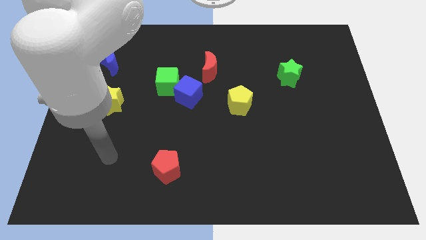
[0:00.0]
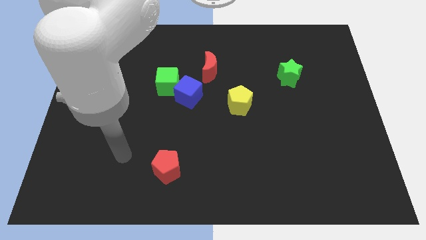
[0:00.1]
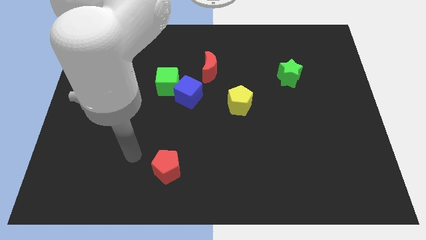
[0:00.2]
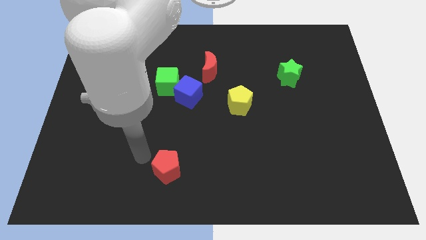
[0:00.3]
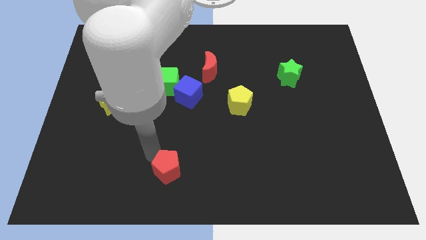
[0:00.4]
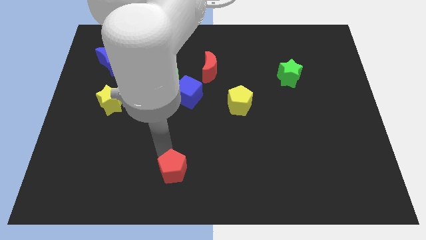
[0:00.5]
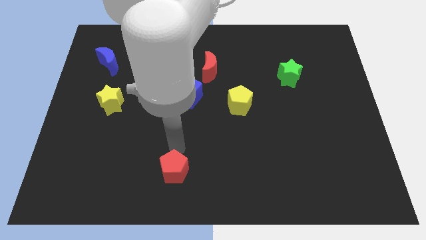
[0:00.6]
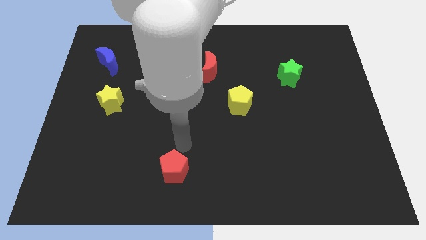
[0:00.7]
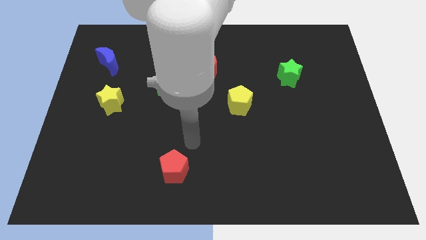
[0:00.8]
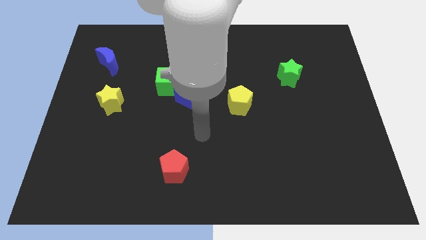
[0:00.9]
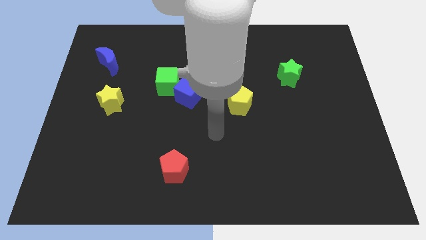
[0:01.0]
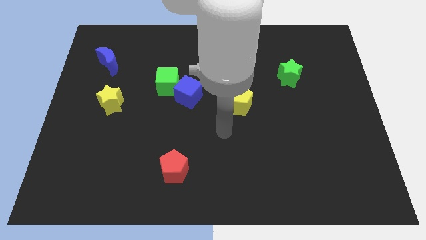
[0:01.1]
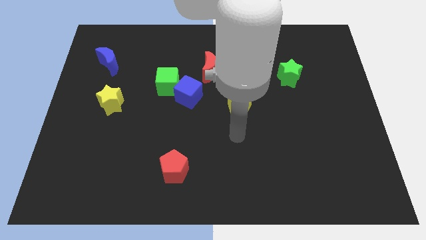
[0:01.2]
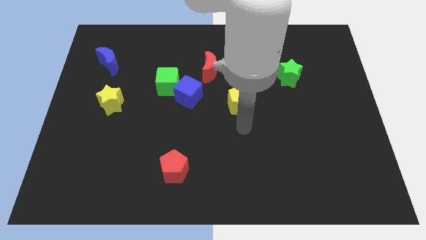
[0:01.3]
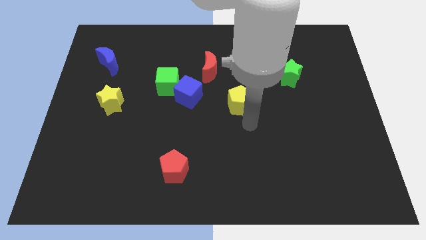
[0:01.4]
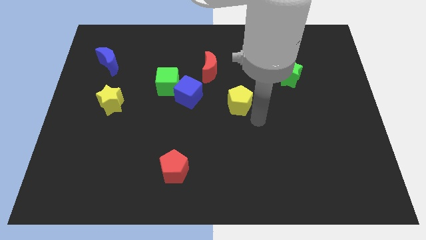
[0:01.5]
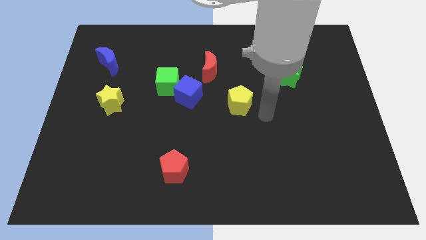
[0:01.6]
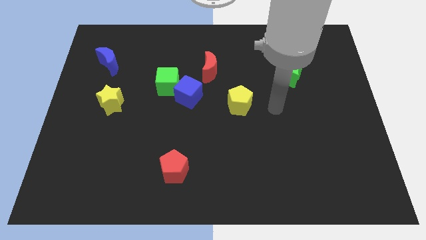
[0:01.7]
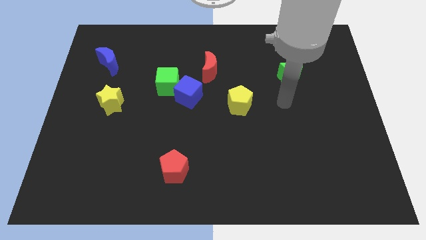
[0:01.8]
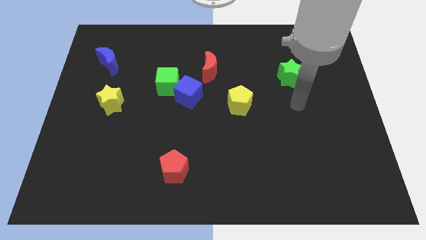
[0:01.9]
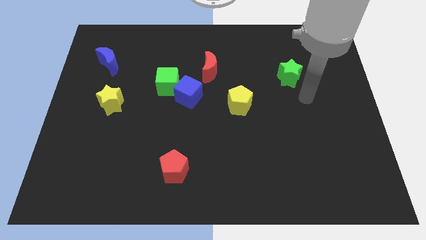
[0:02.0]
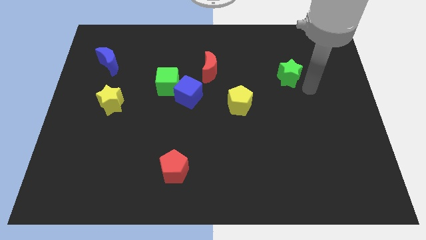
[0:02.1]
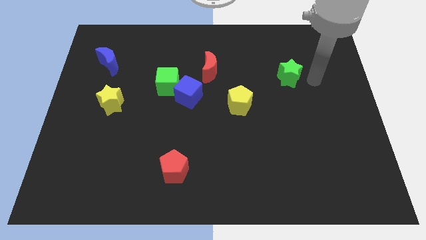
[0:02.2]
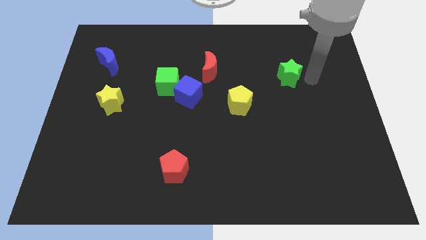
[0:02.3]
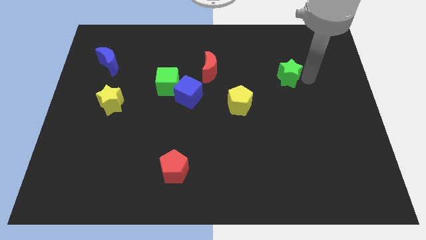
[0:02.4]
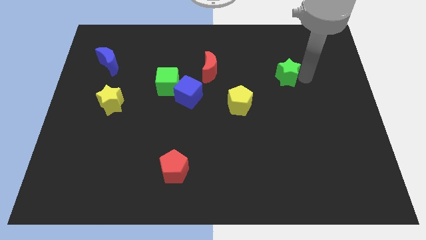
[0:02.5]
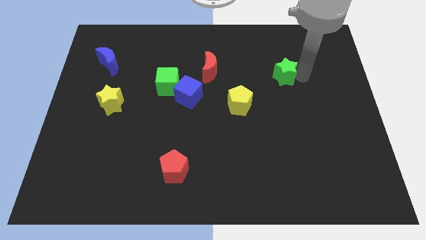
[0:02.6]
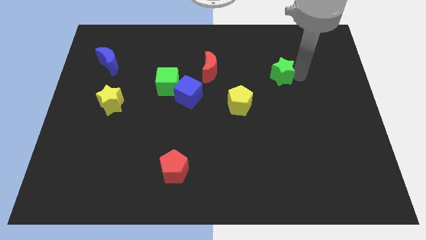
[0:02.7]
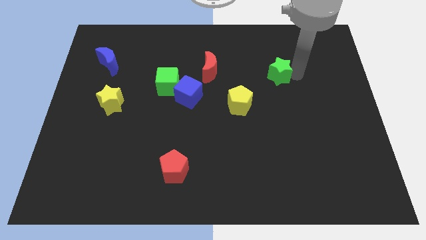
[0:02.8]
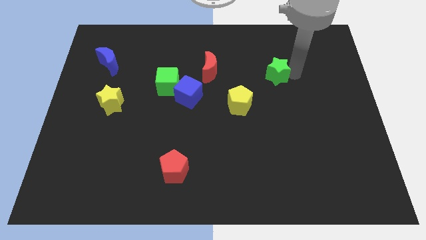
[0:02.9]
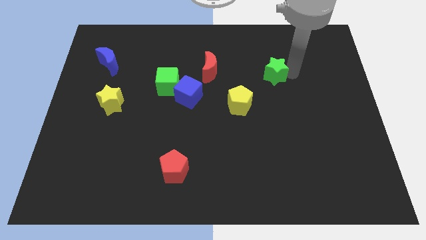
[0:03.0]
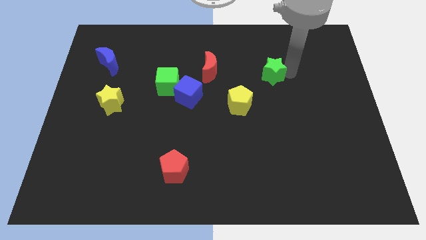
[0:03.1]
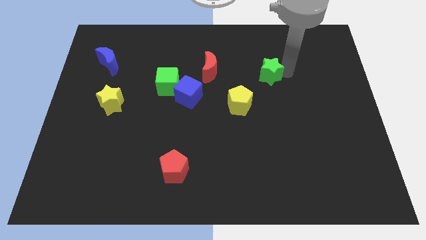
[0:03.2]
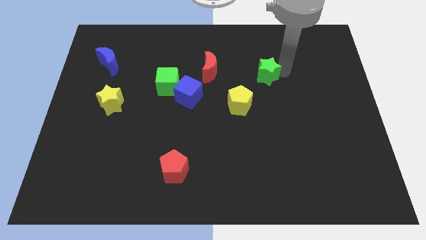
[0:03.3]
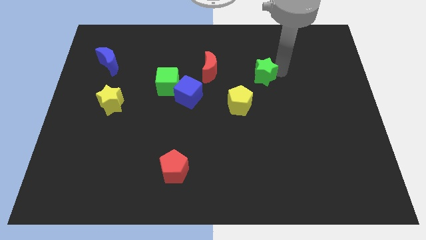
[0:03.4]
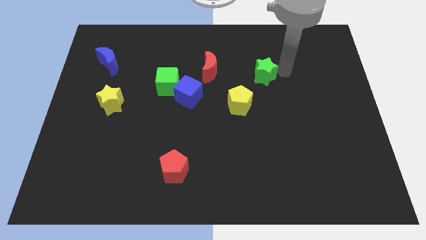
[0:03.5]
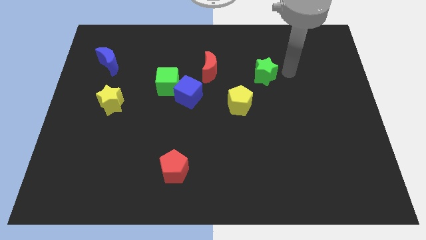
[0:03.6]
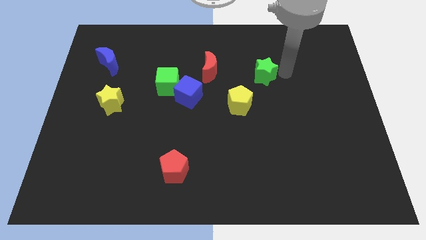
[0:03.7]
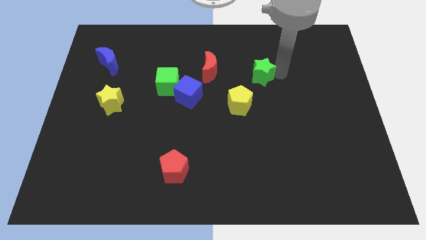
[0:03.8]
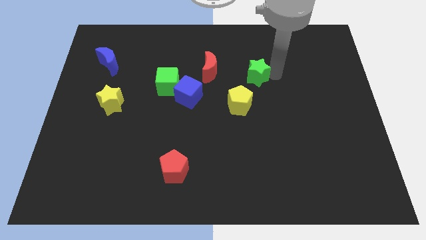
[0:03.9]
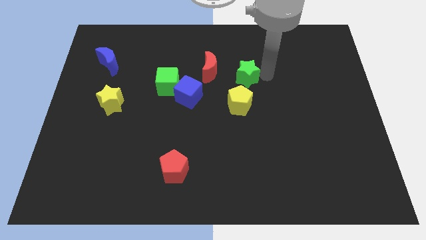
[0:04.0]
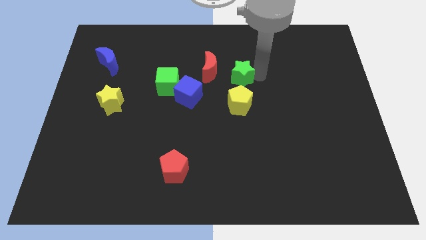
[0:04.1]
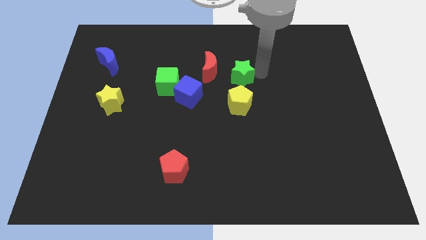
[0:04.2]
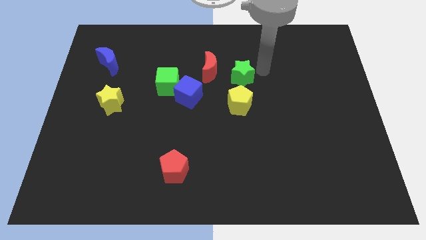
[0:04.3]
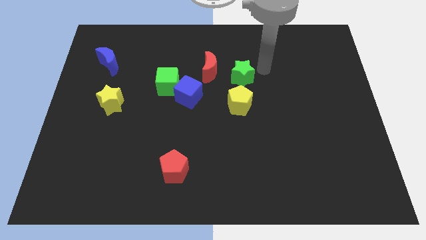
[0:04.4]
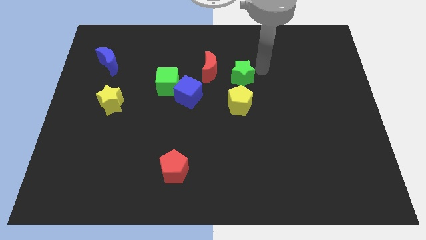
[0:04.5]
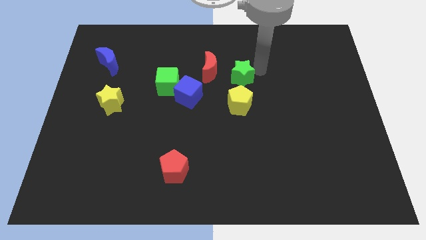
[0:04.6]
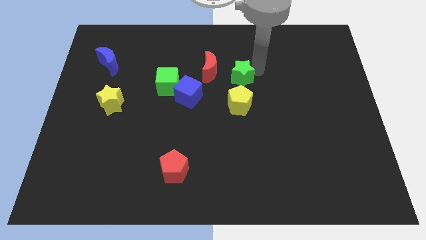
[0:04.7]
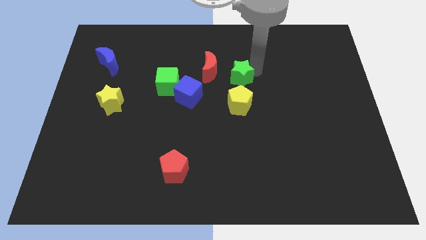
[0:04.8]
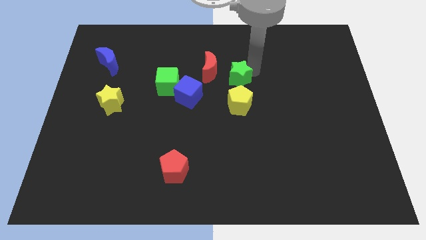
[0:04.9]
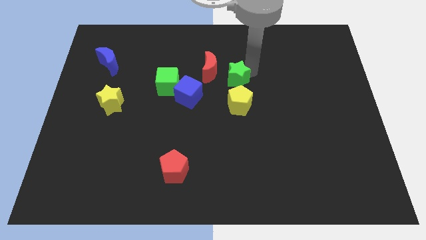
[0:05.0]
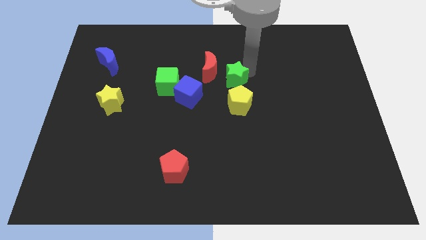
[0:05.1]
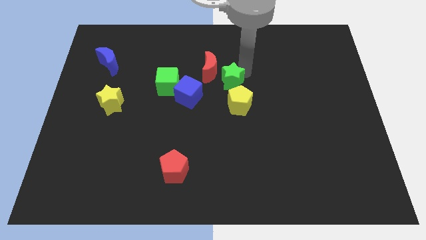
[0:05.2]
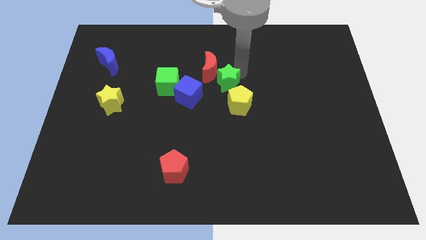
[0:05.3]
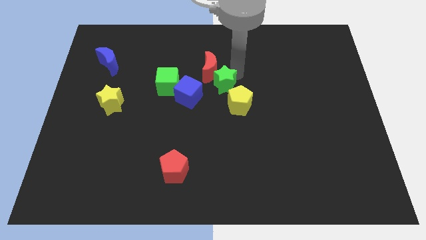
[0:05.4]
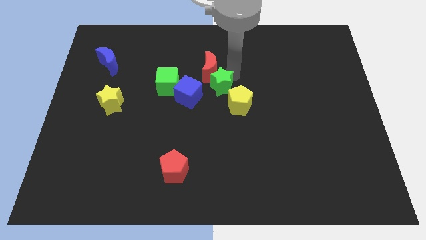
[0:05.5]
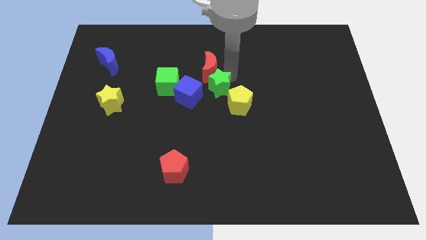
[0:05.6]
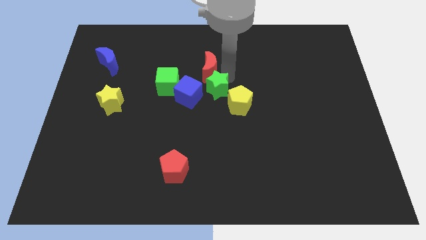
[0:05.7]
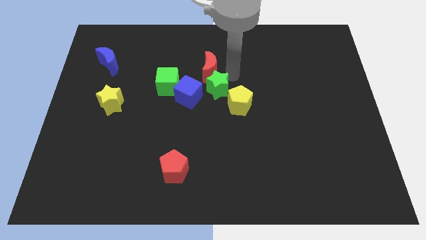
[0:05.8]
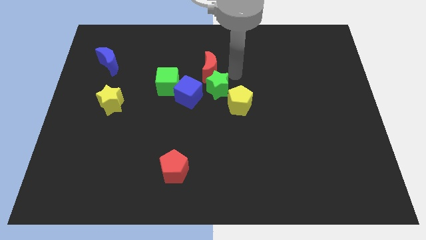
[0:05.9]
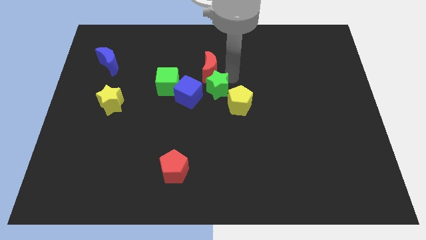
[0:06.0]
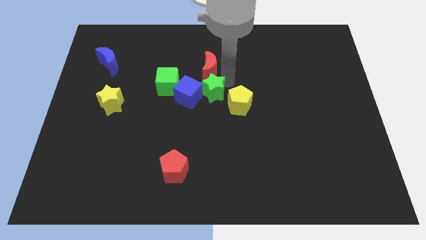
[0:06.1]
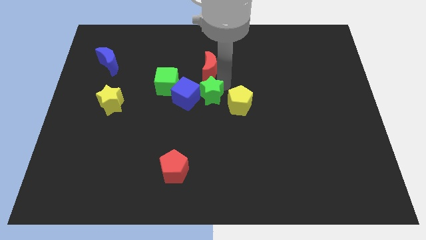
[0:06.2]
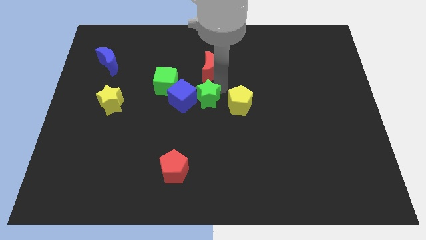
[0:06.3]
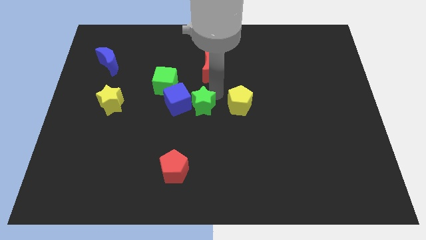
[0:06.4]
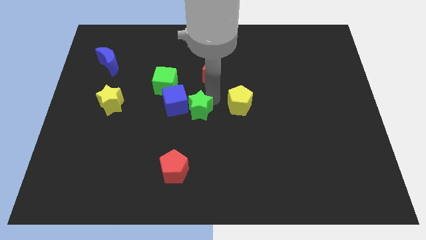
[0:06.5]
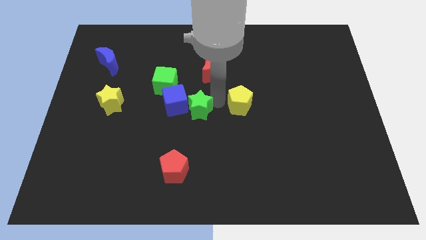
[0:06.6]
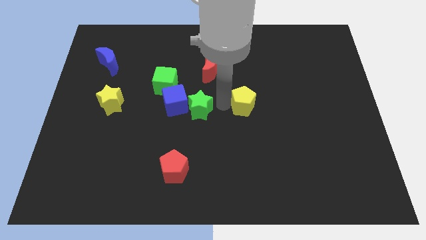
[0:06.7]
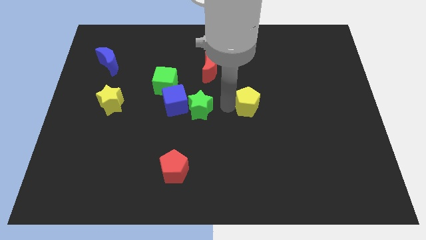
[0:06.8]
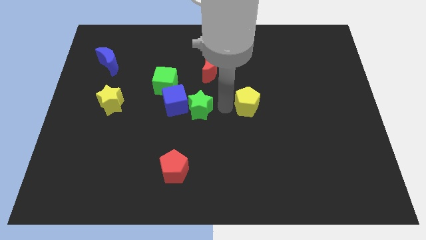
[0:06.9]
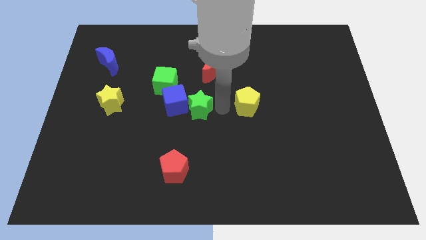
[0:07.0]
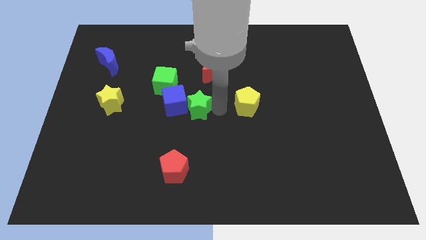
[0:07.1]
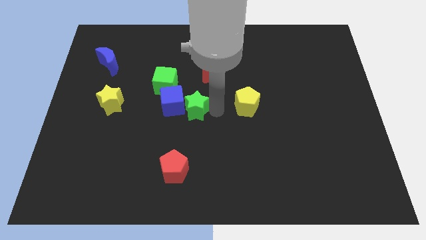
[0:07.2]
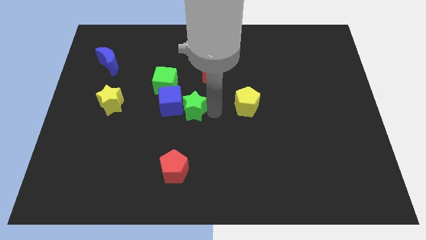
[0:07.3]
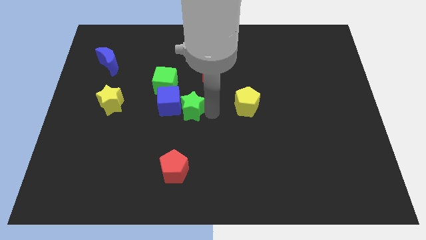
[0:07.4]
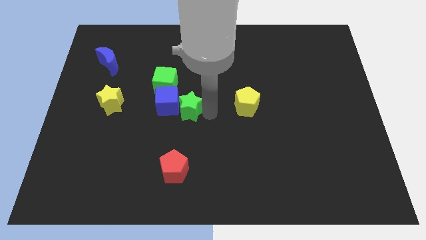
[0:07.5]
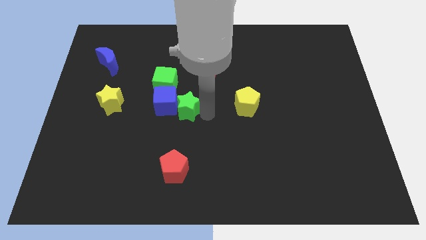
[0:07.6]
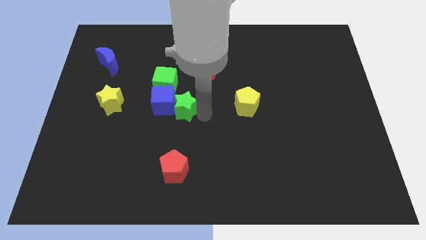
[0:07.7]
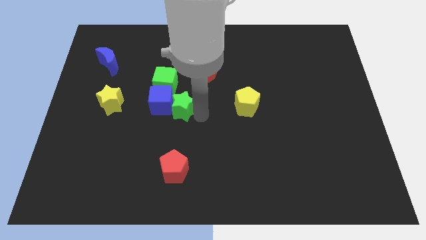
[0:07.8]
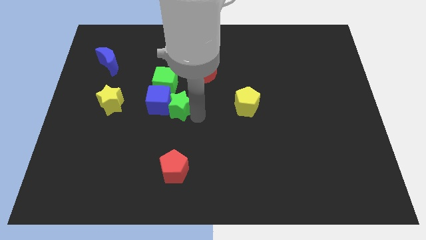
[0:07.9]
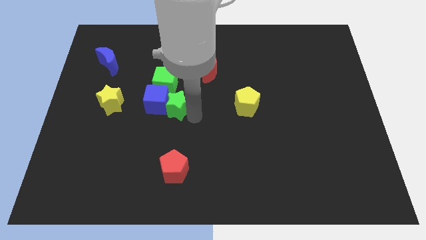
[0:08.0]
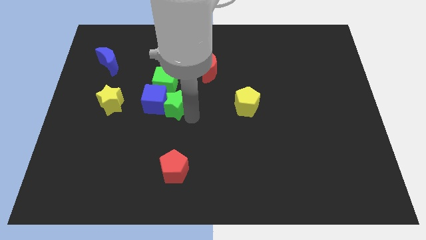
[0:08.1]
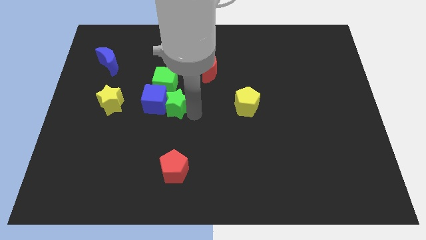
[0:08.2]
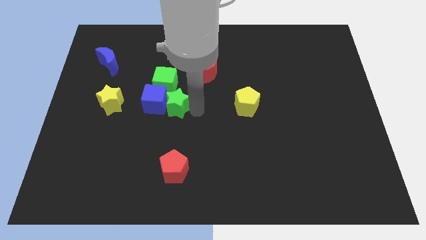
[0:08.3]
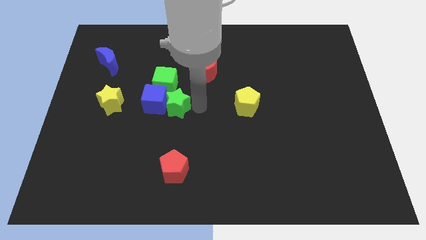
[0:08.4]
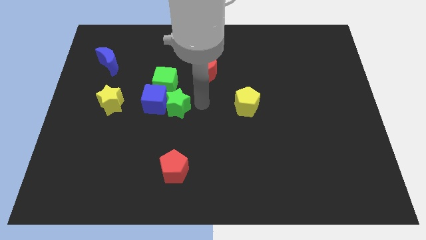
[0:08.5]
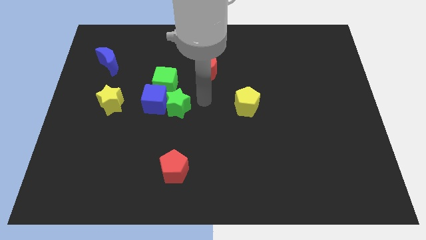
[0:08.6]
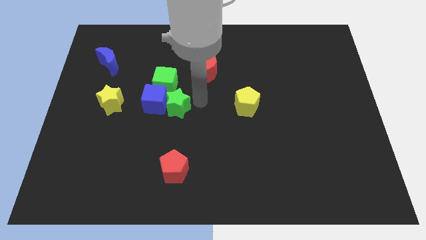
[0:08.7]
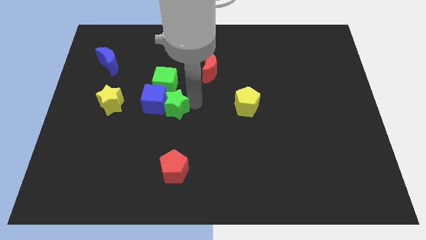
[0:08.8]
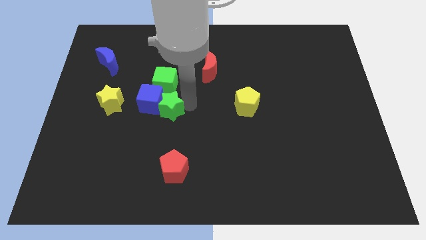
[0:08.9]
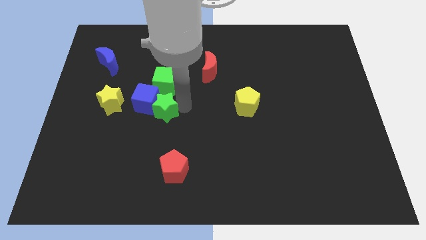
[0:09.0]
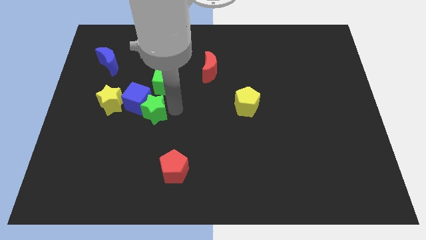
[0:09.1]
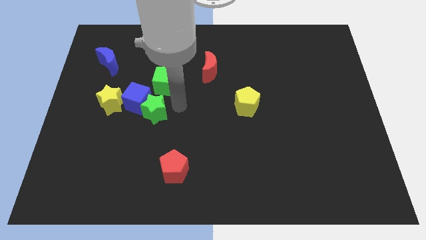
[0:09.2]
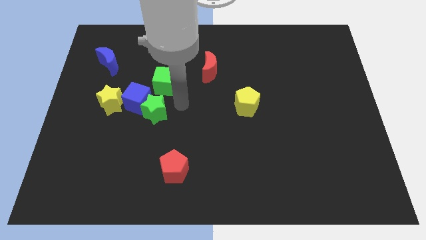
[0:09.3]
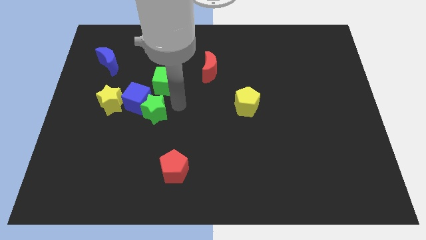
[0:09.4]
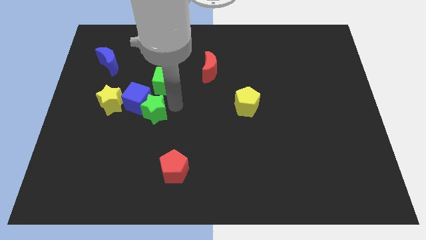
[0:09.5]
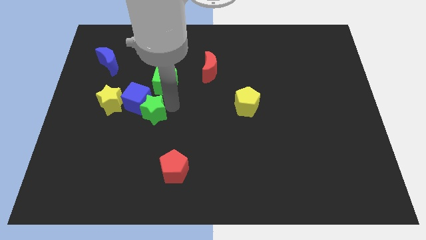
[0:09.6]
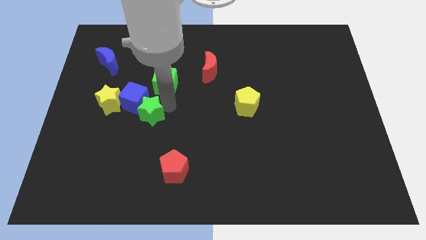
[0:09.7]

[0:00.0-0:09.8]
put the green star to the bottom right side of the yellow star
